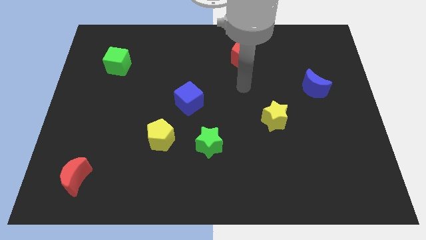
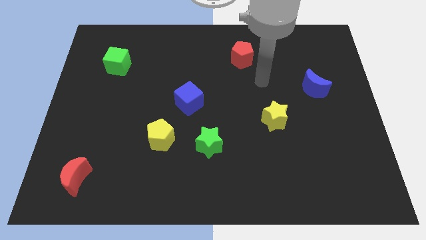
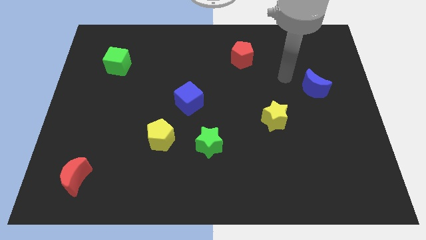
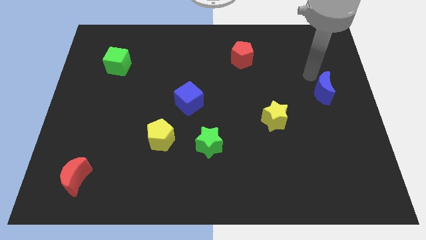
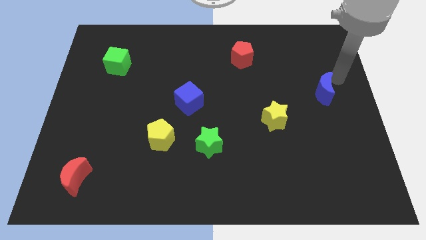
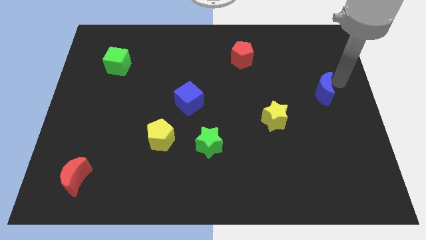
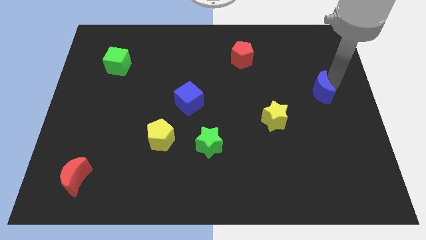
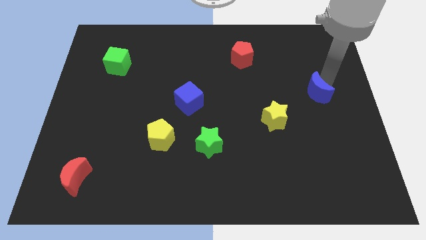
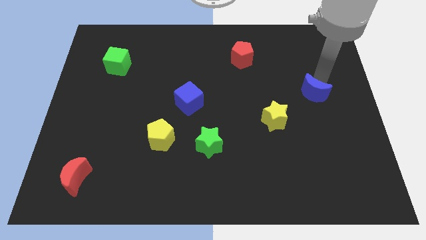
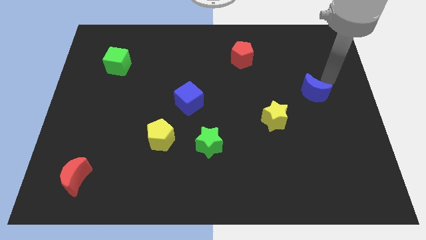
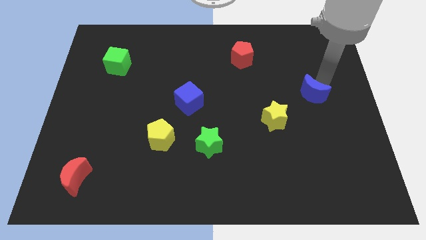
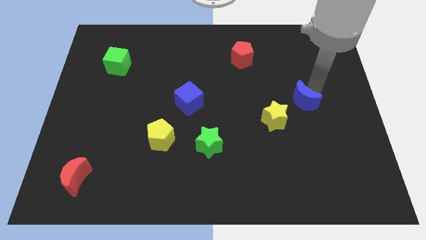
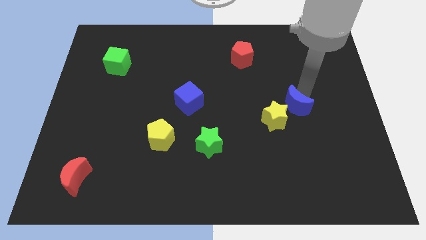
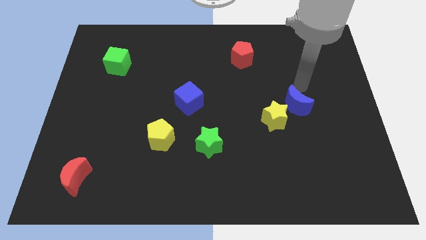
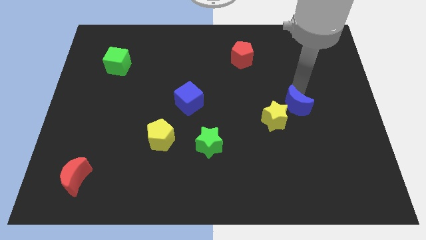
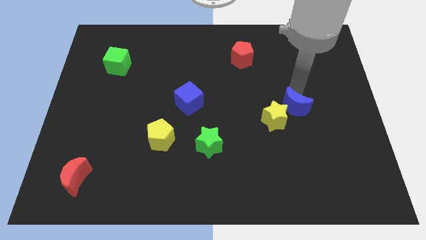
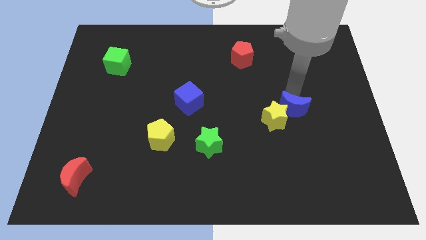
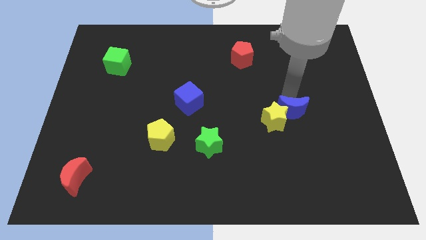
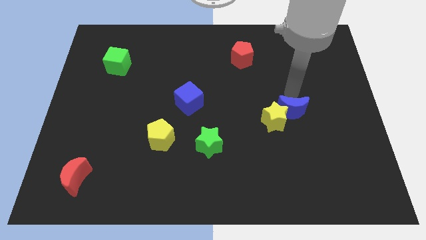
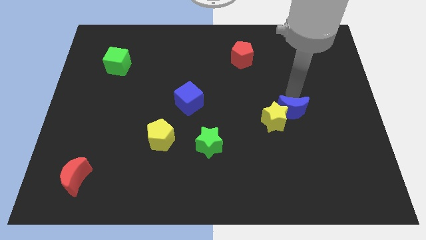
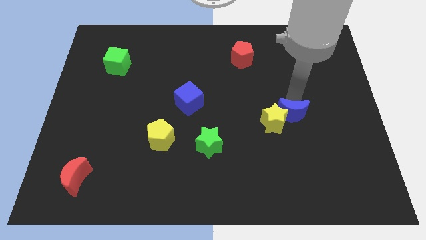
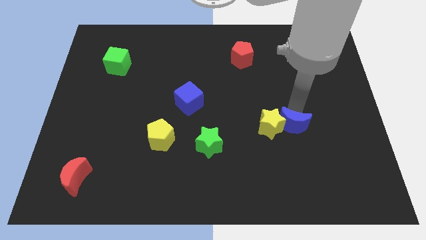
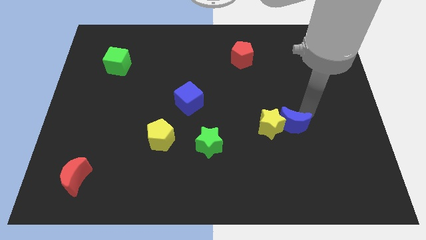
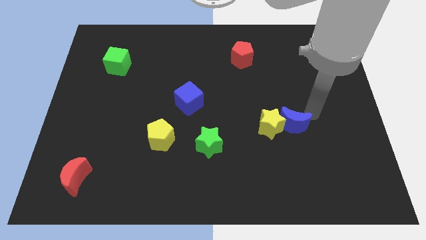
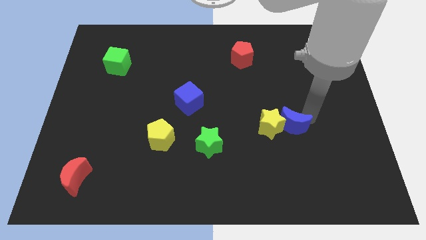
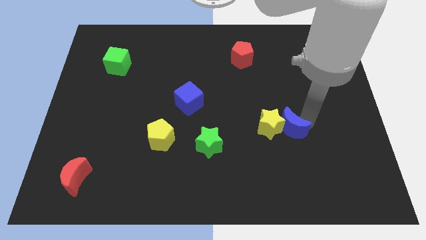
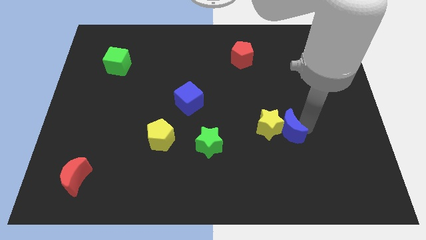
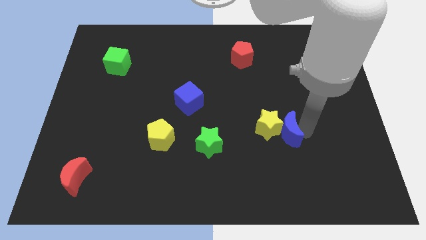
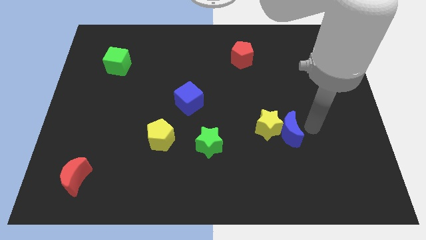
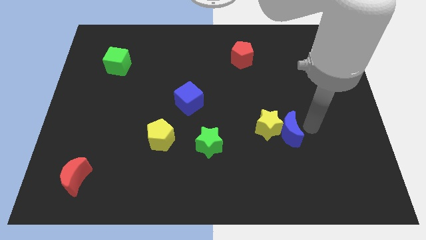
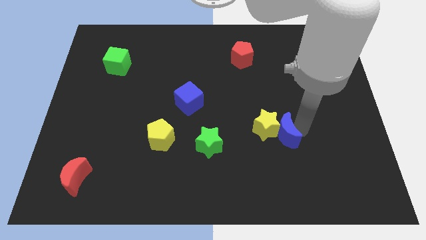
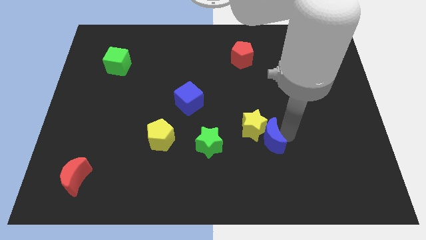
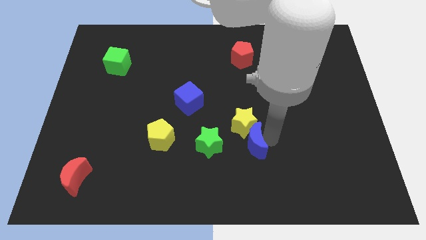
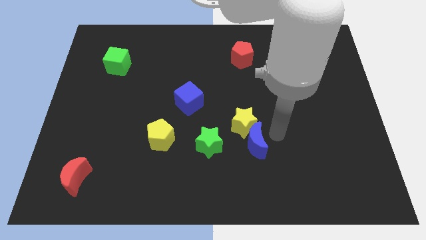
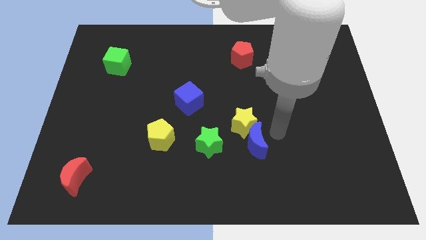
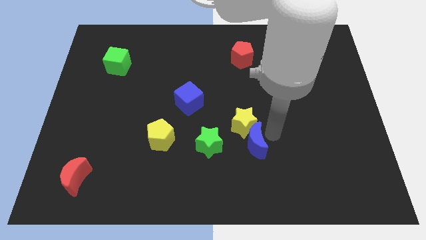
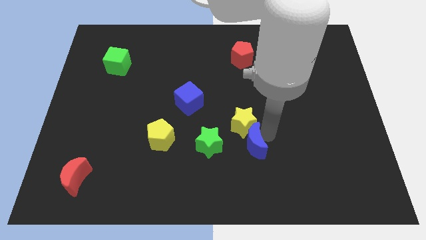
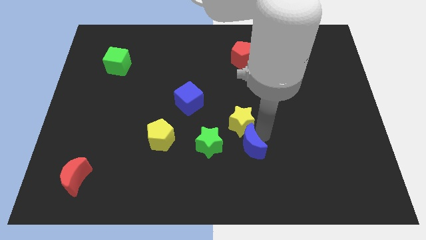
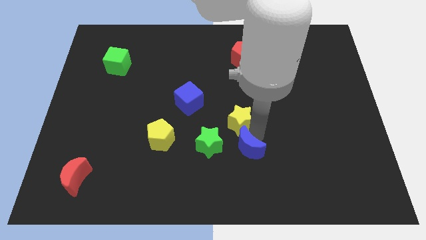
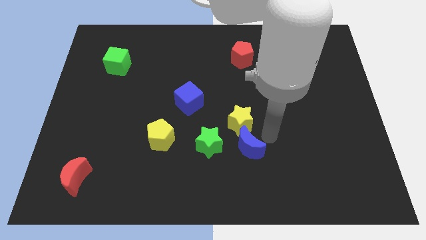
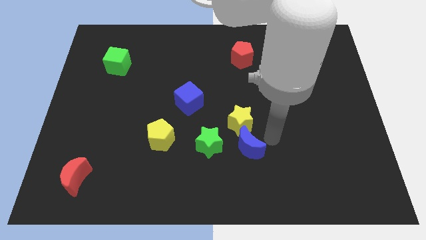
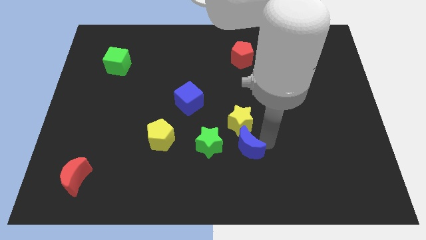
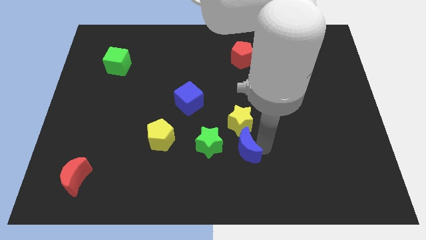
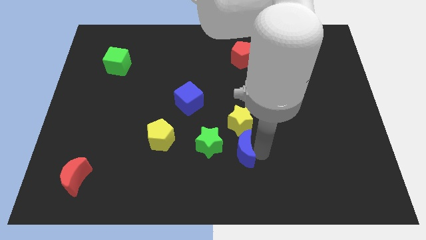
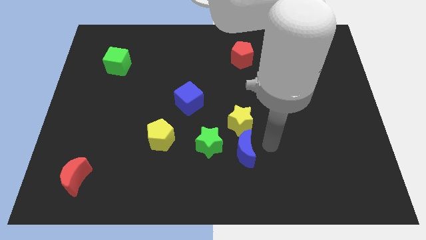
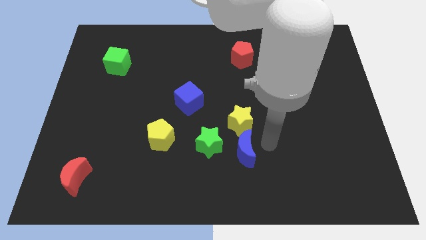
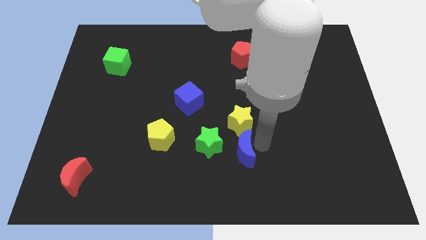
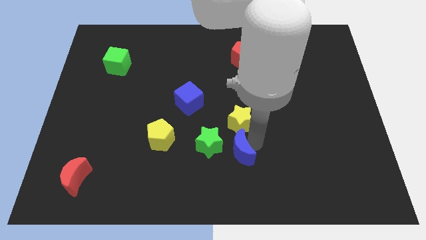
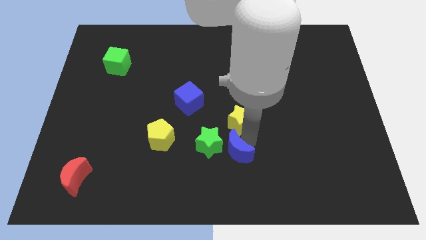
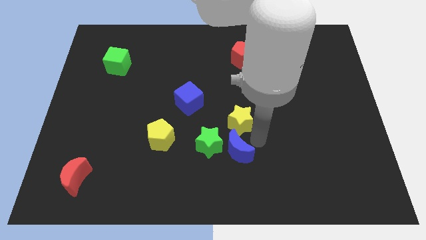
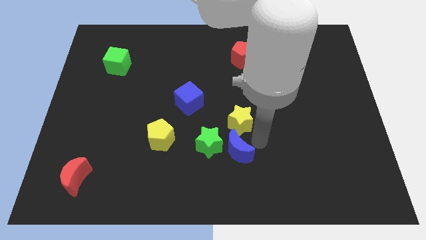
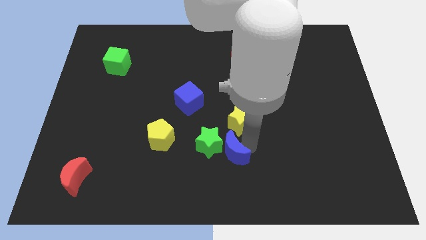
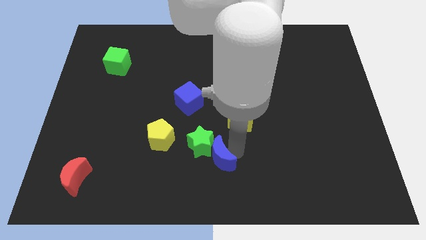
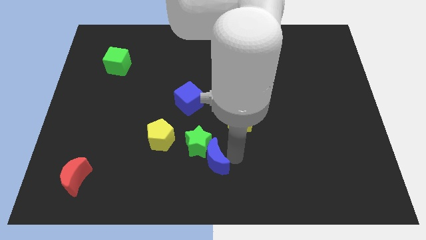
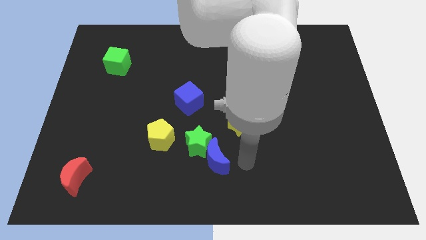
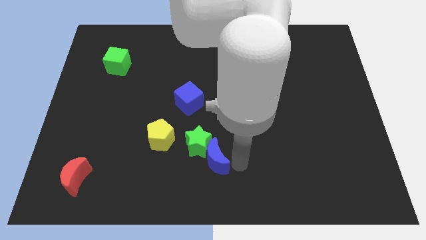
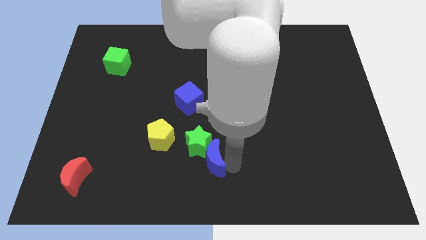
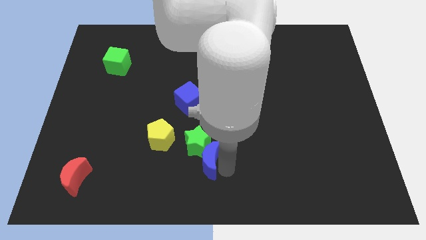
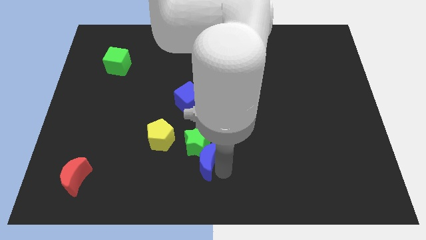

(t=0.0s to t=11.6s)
push the blue moon to the bottom right of the yellow pentagon

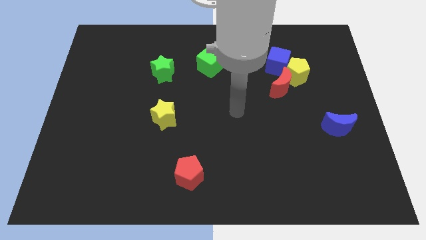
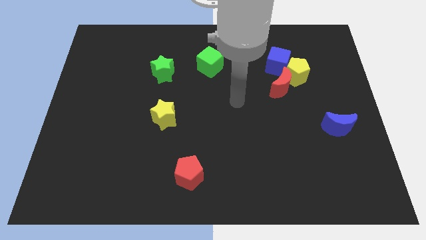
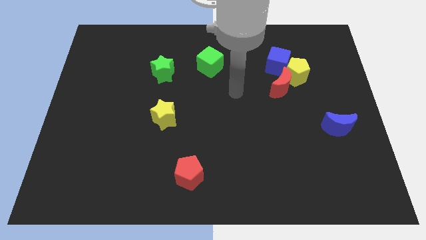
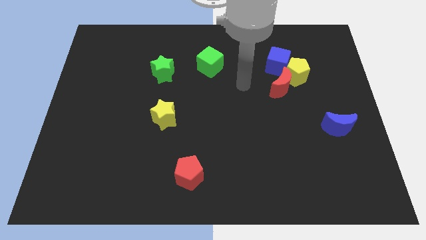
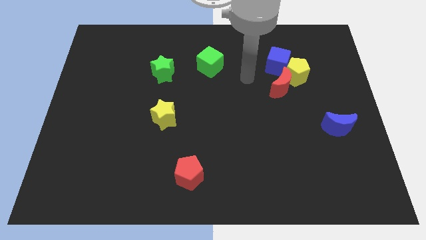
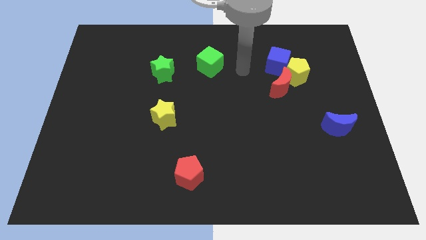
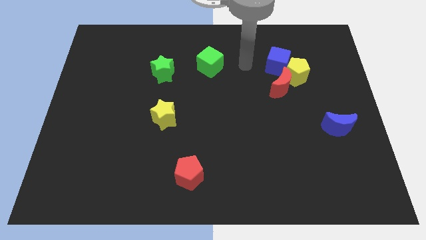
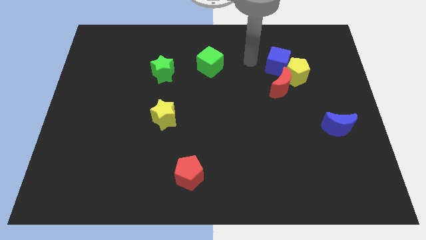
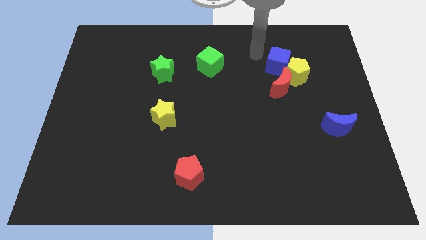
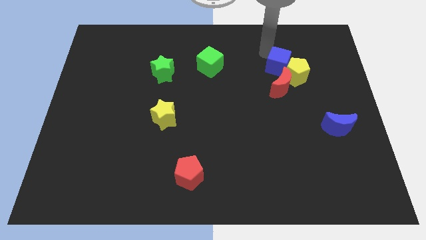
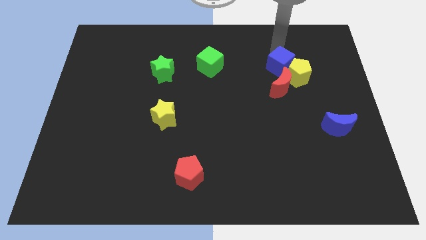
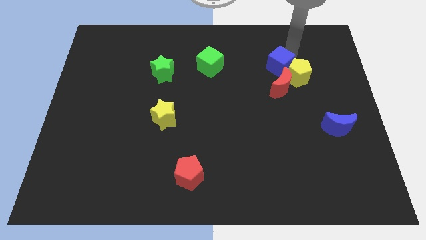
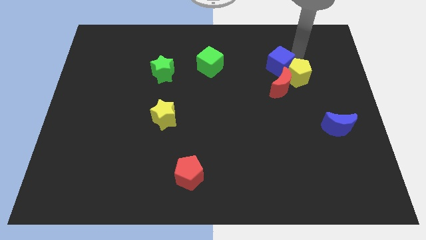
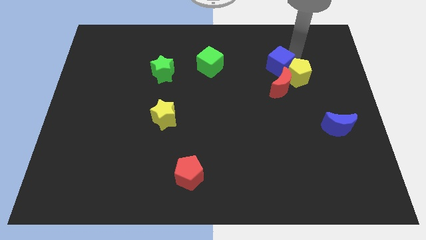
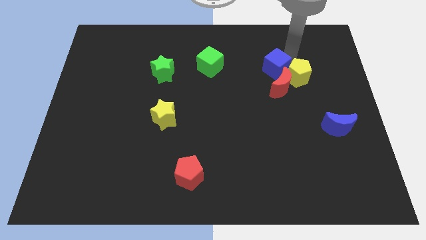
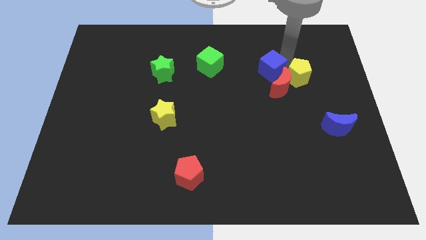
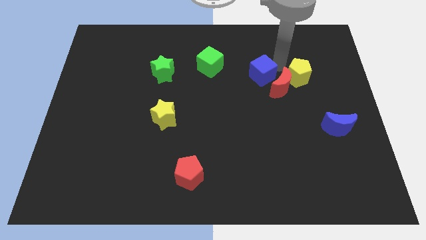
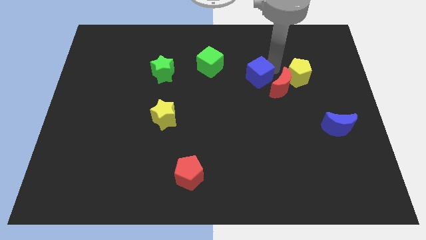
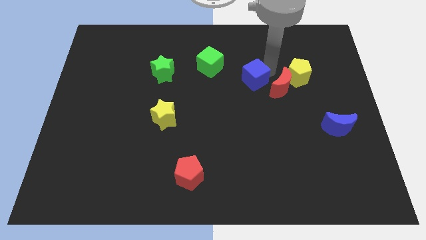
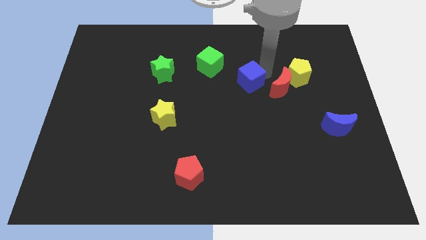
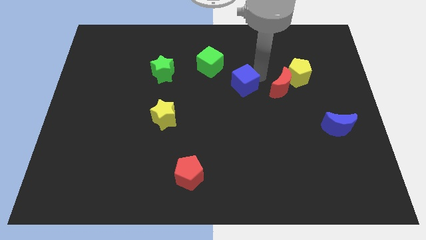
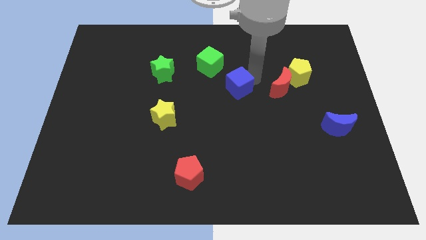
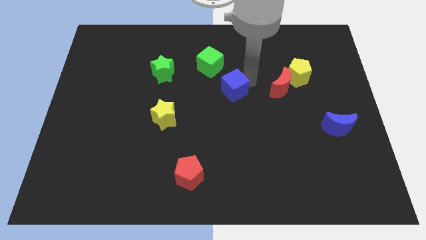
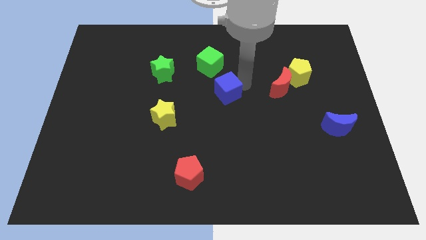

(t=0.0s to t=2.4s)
move the blue cube below the green cube
